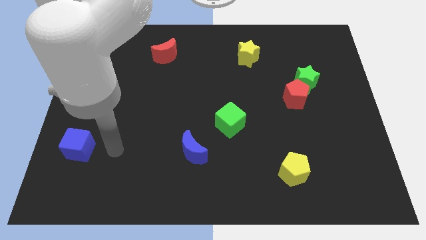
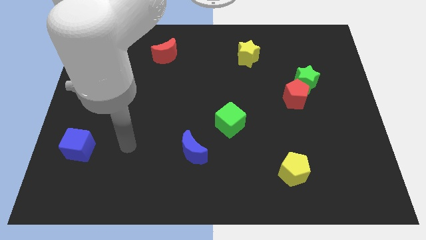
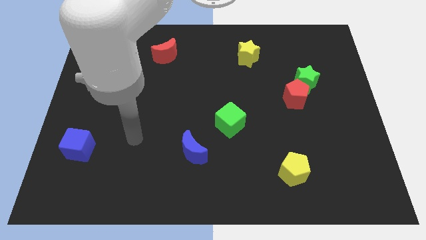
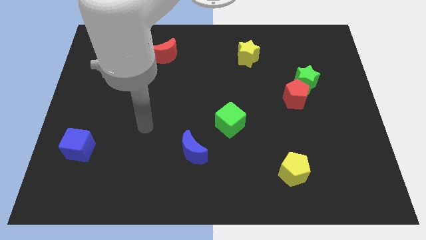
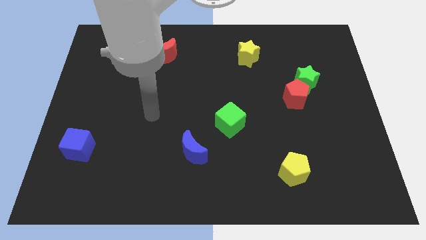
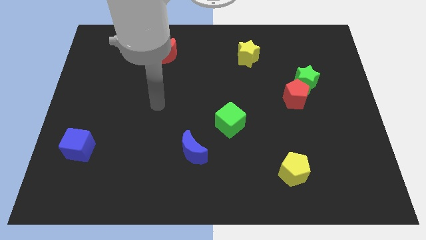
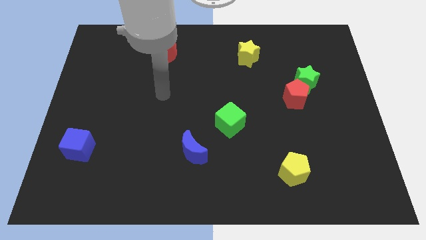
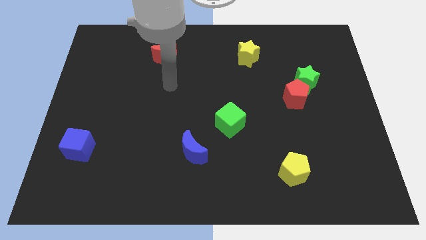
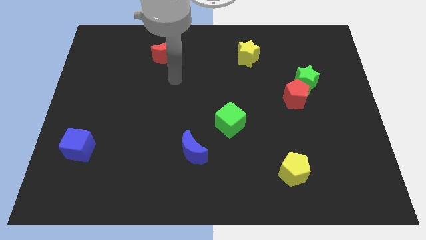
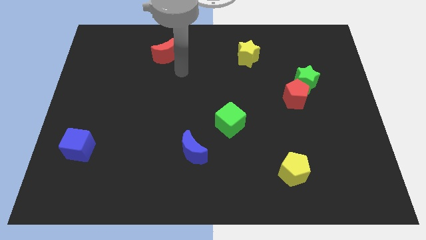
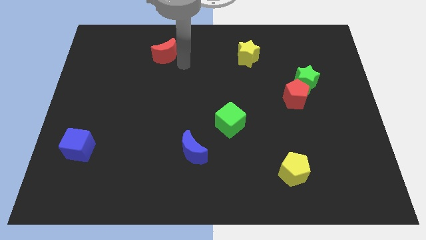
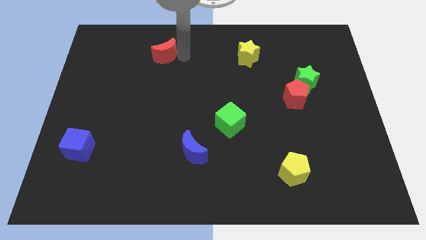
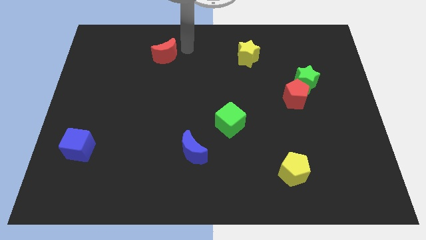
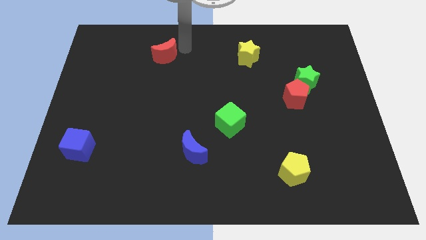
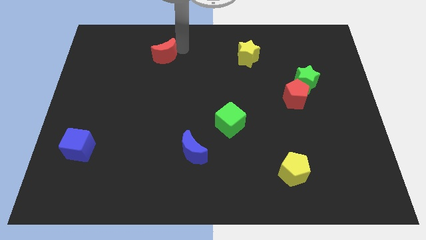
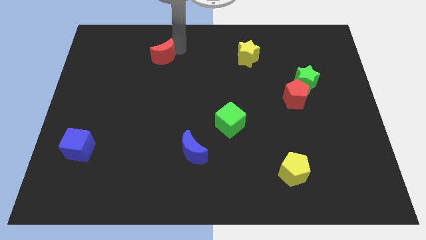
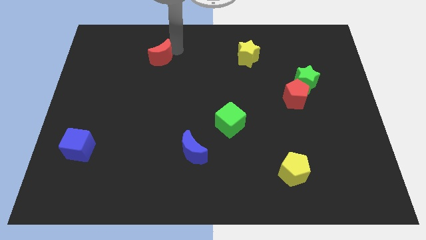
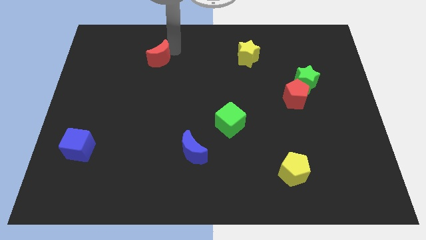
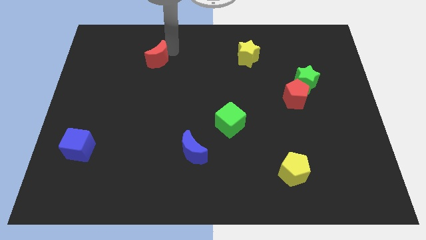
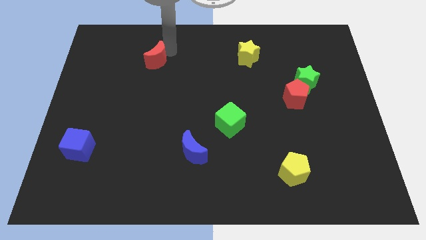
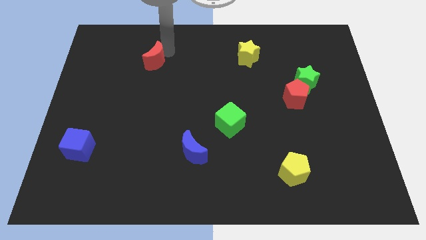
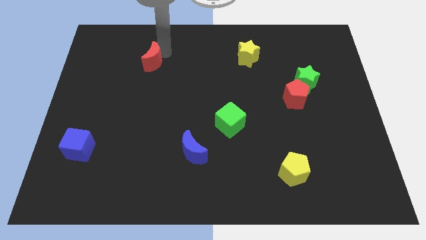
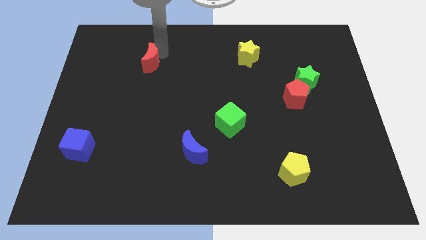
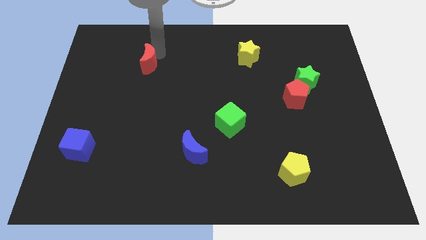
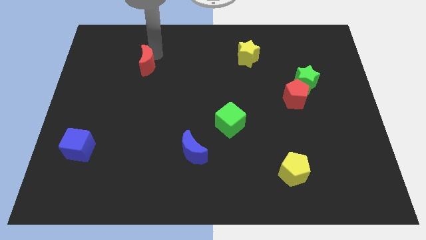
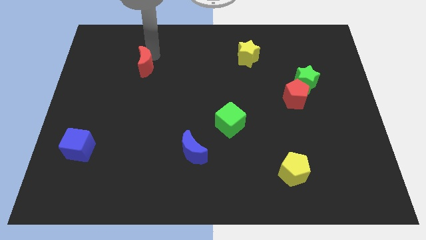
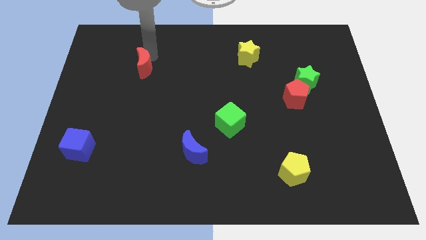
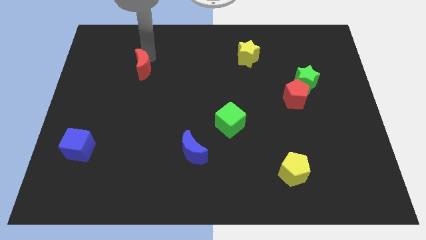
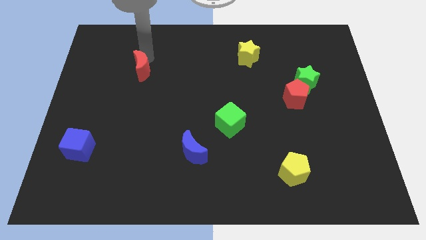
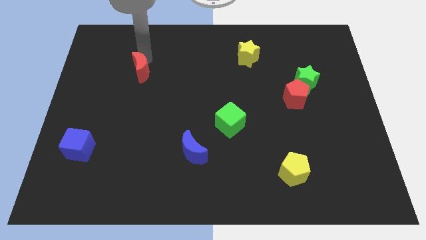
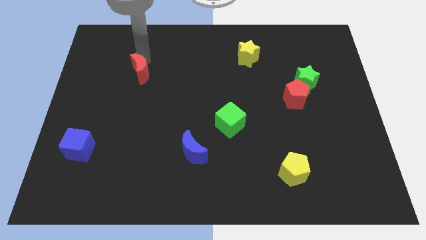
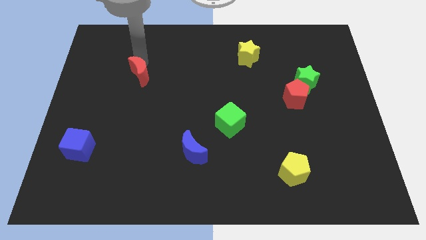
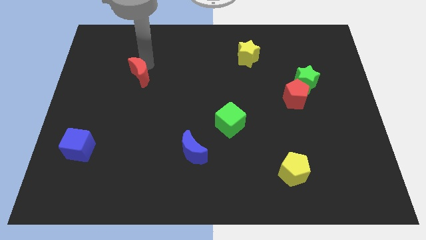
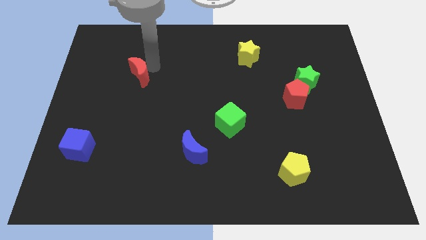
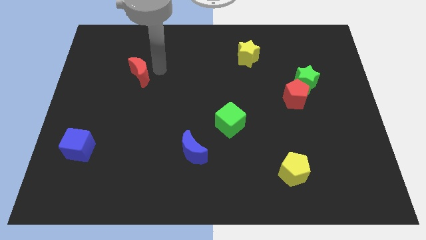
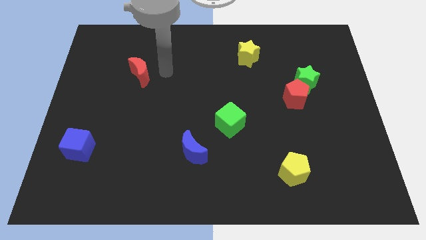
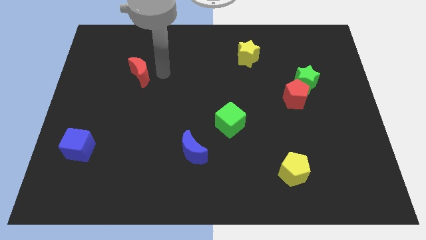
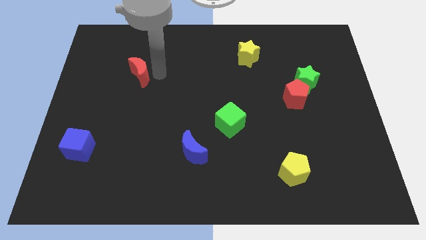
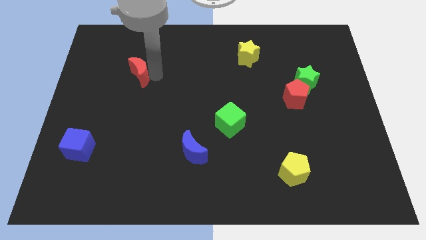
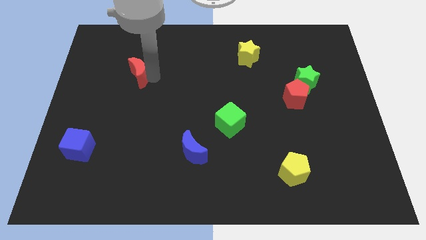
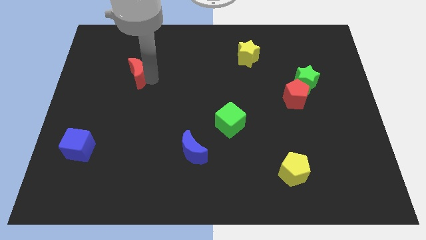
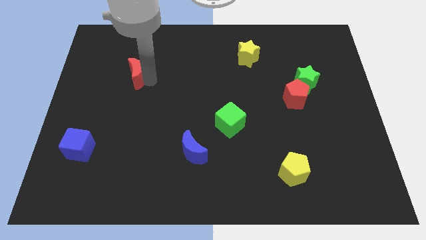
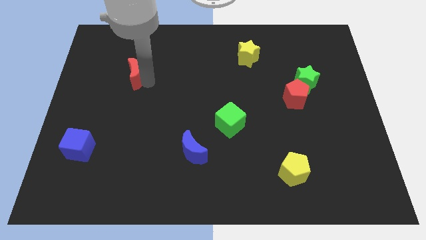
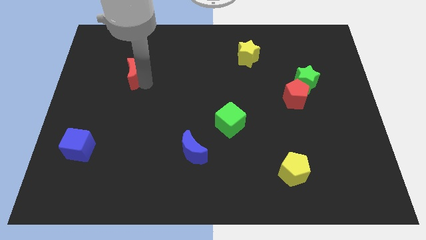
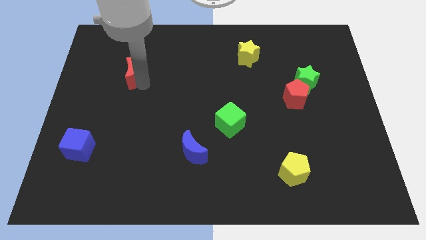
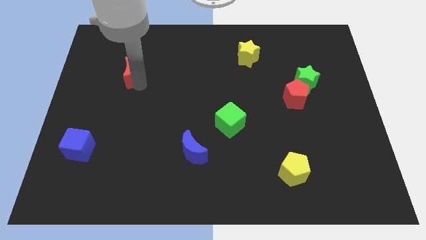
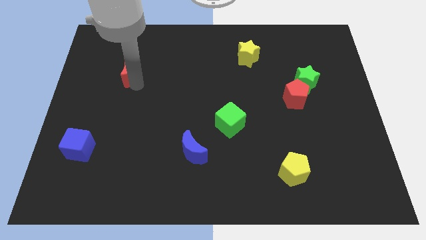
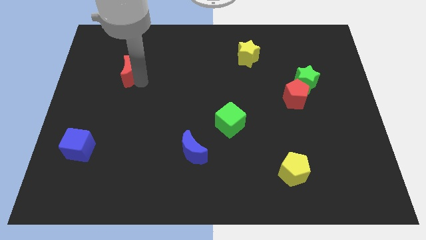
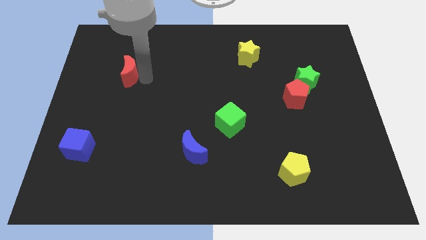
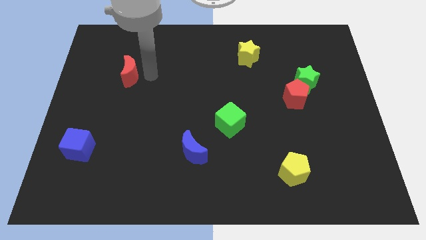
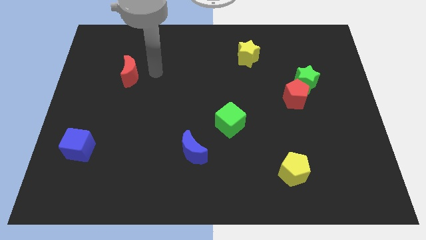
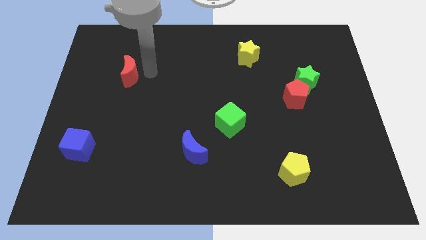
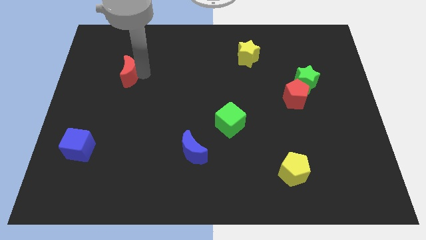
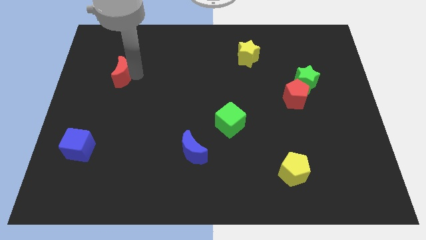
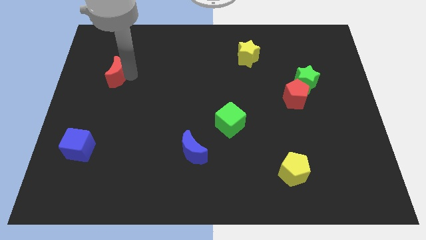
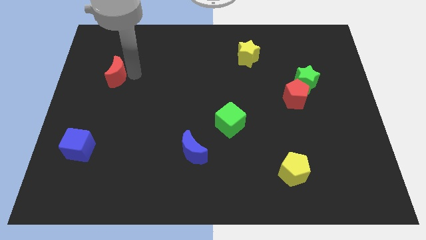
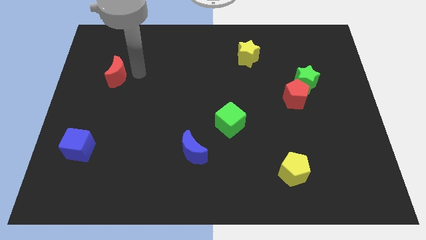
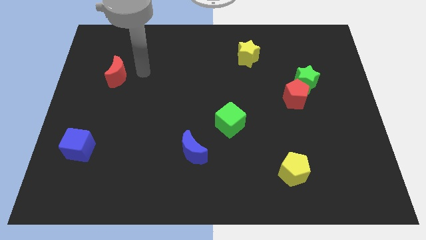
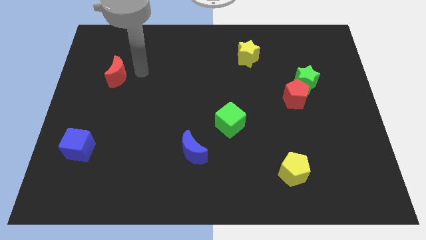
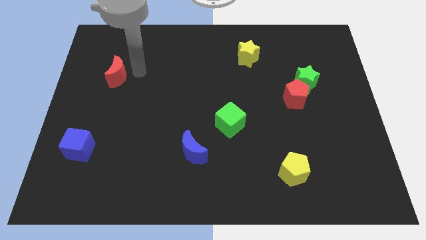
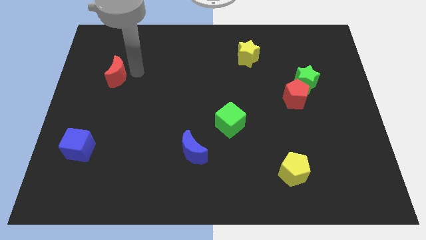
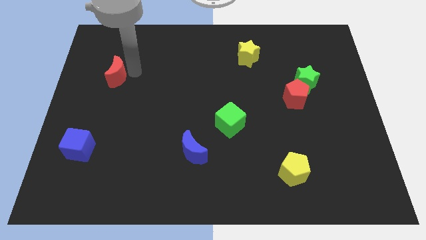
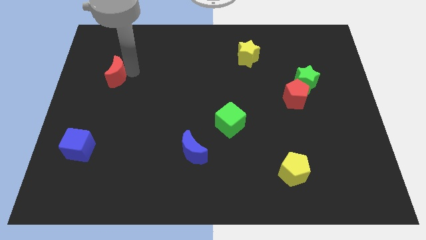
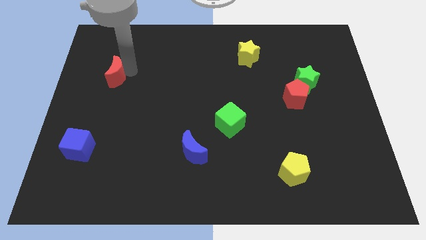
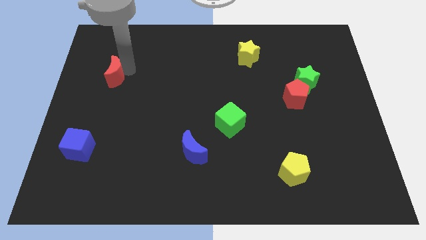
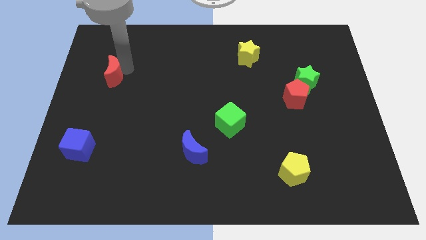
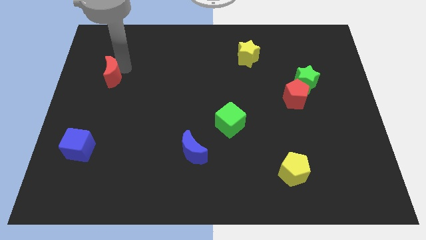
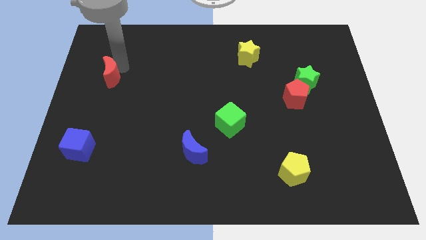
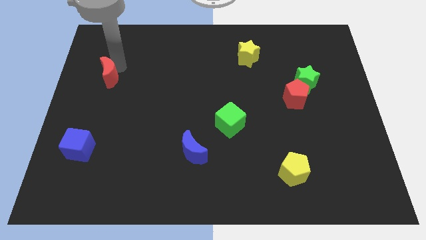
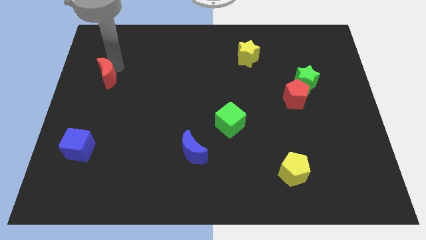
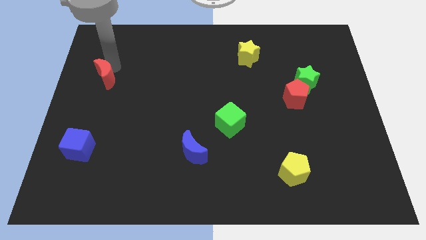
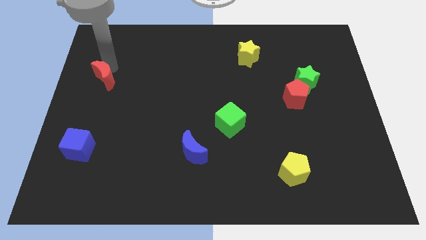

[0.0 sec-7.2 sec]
put the red moon to the left side of the board
